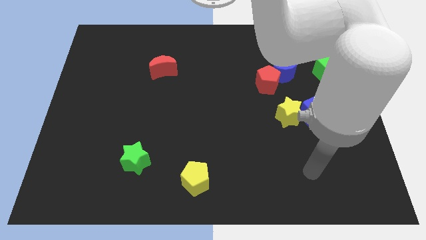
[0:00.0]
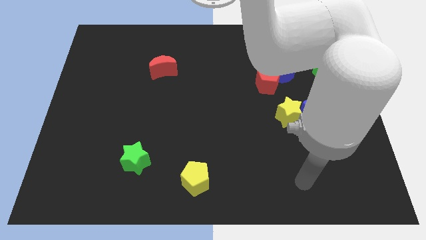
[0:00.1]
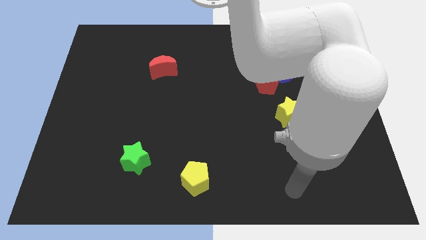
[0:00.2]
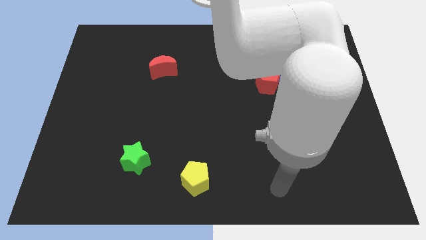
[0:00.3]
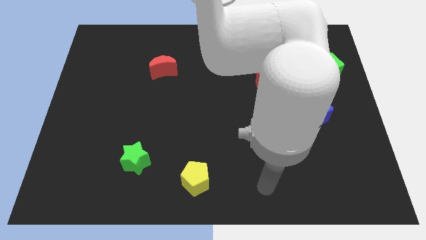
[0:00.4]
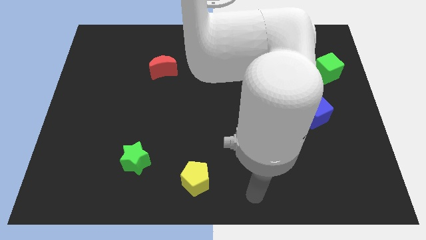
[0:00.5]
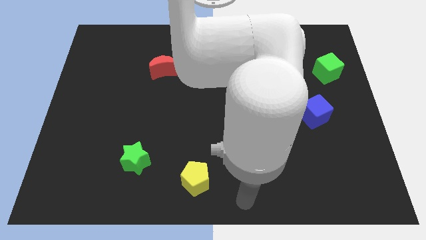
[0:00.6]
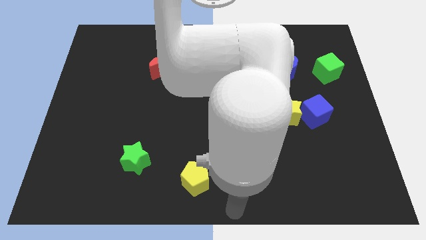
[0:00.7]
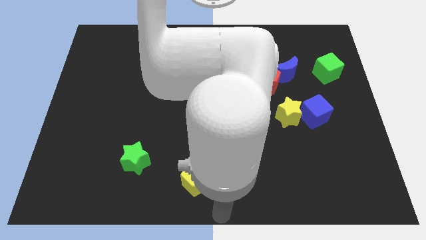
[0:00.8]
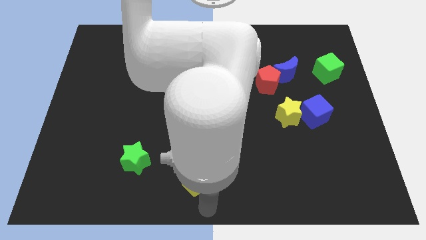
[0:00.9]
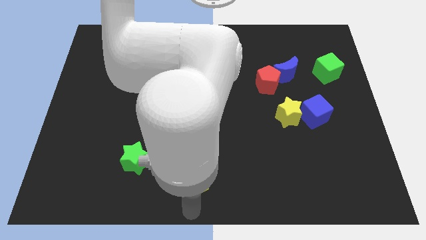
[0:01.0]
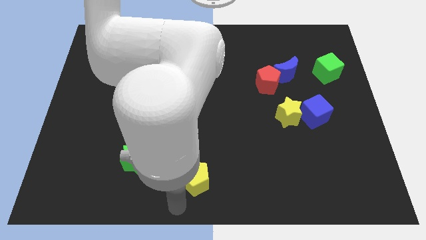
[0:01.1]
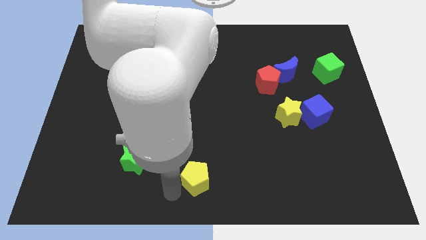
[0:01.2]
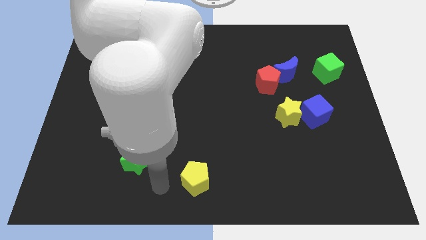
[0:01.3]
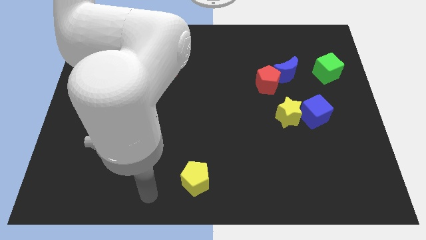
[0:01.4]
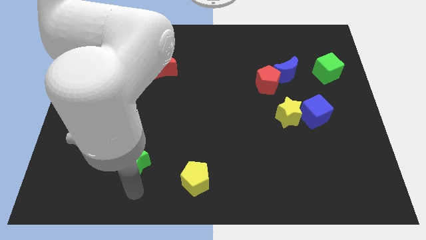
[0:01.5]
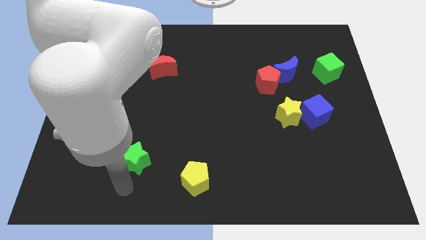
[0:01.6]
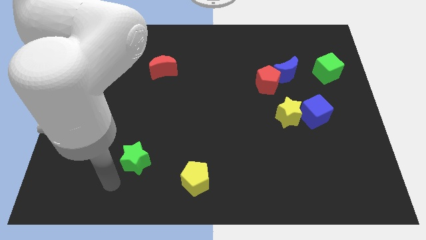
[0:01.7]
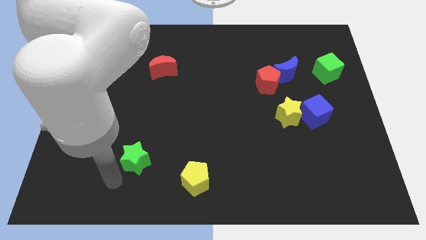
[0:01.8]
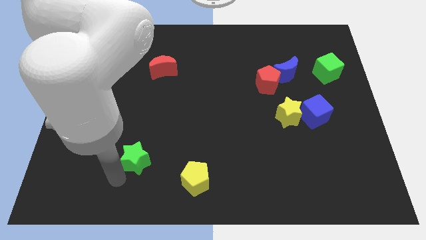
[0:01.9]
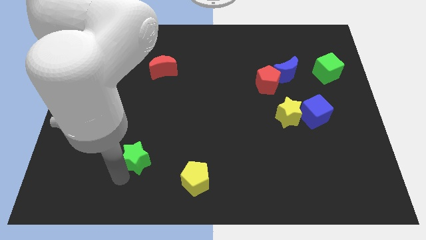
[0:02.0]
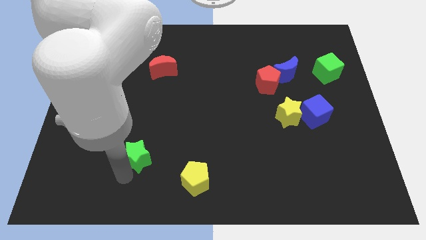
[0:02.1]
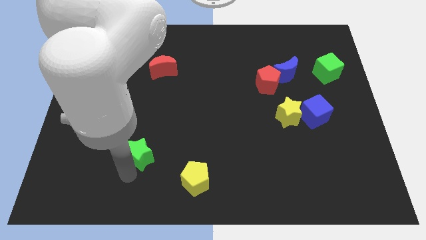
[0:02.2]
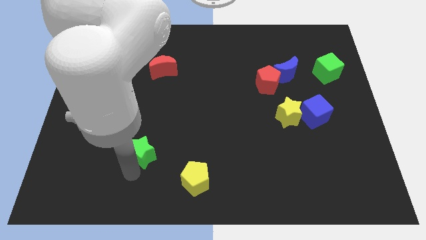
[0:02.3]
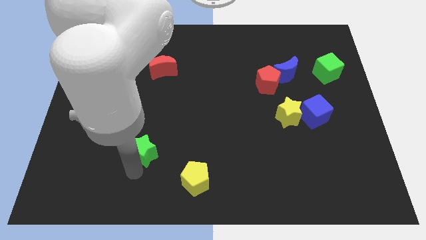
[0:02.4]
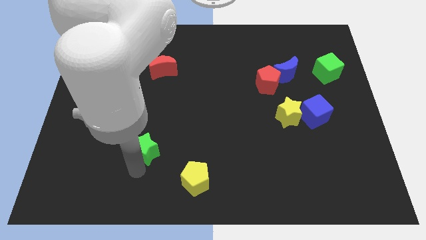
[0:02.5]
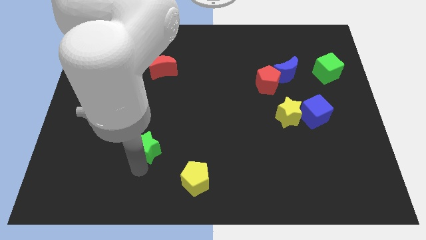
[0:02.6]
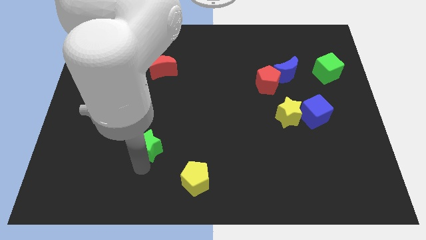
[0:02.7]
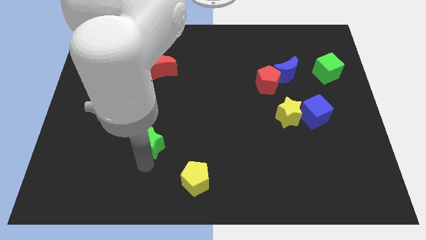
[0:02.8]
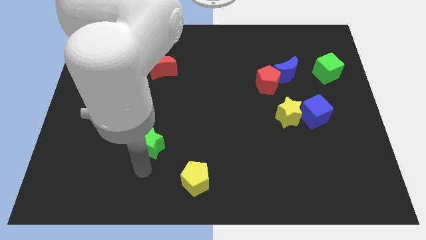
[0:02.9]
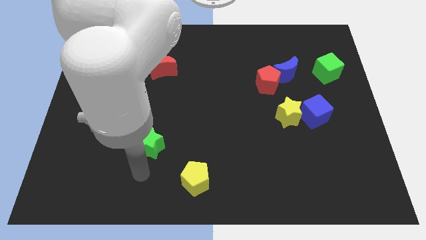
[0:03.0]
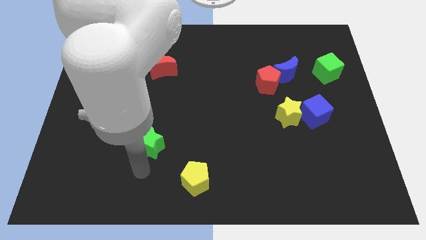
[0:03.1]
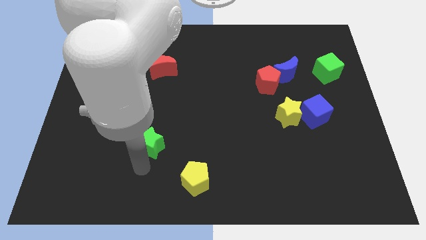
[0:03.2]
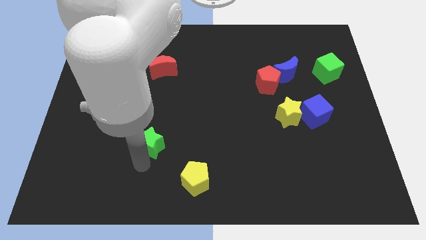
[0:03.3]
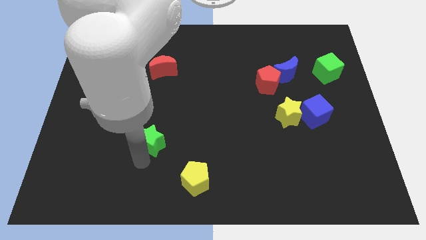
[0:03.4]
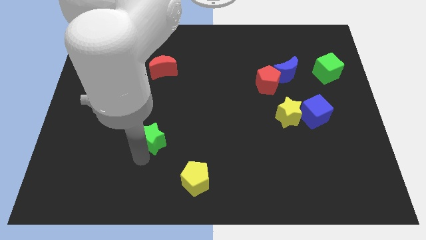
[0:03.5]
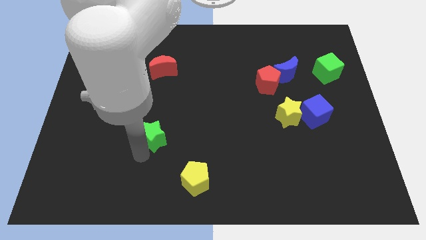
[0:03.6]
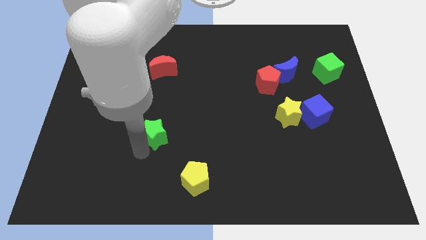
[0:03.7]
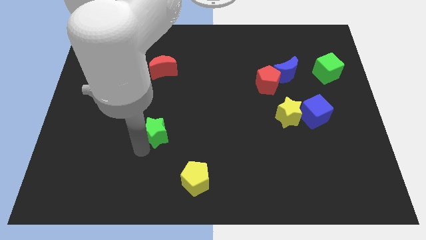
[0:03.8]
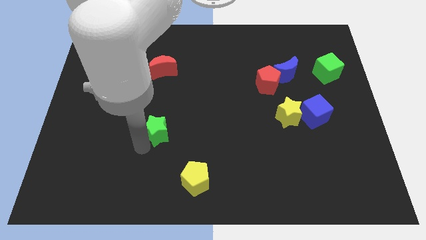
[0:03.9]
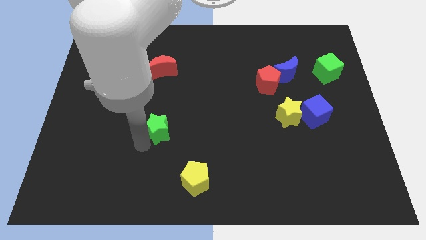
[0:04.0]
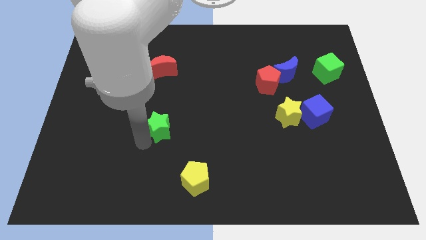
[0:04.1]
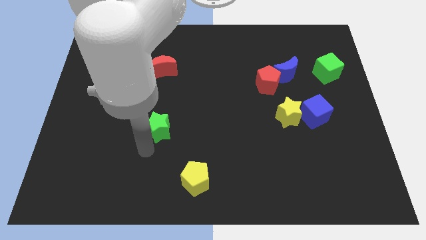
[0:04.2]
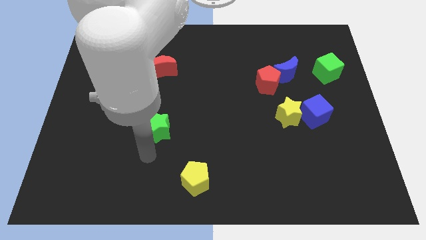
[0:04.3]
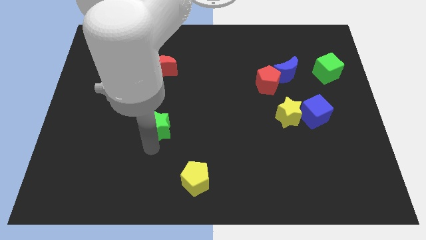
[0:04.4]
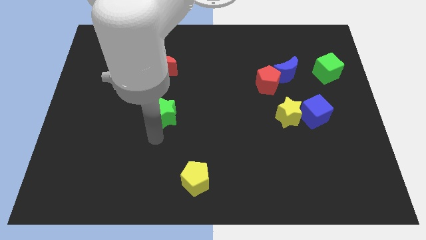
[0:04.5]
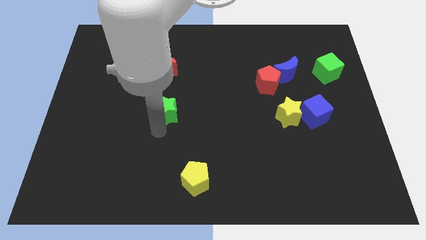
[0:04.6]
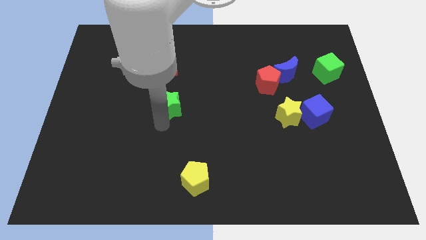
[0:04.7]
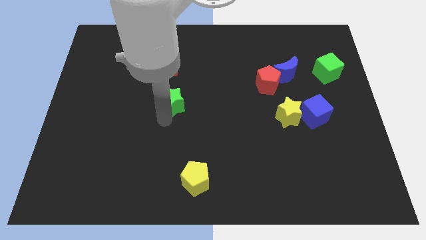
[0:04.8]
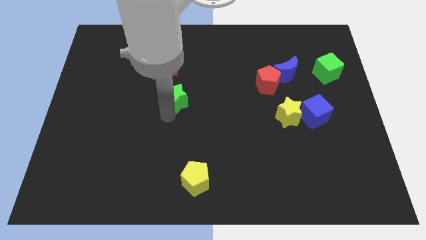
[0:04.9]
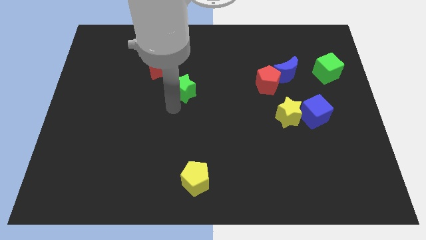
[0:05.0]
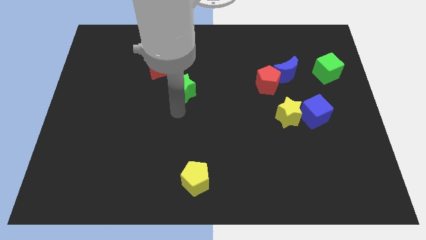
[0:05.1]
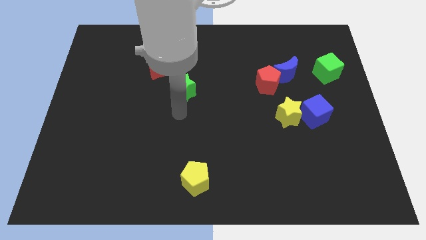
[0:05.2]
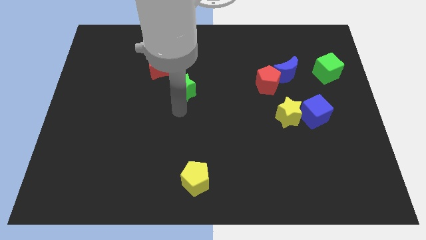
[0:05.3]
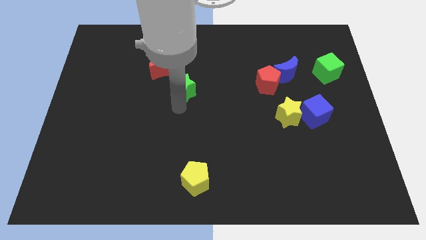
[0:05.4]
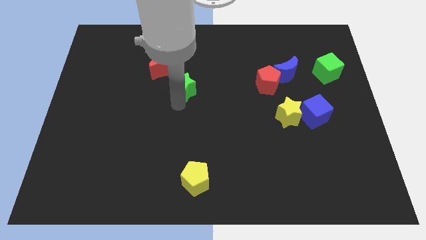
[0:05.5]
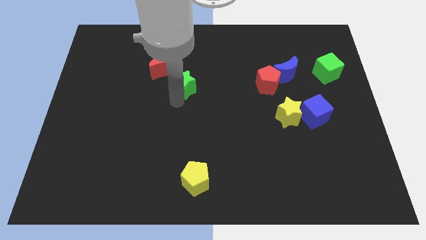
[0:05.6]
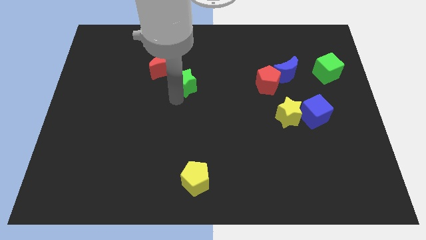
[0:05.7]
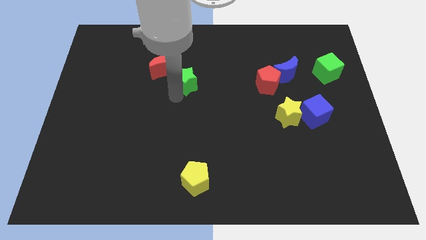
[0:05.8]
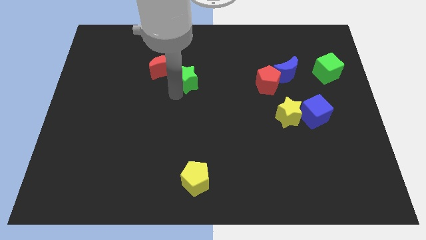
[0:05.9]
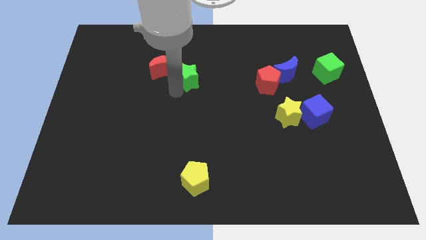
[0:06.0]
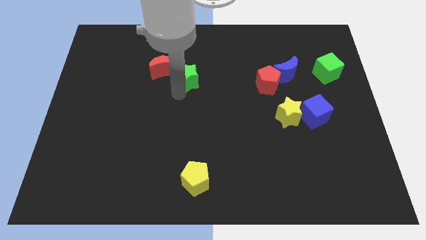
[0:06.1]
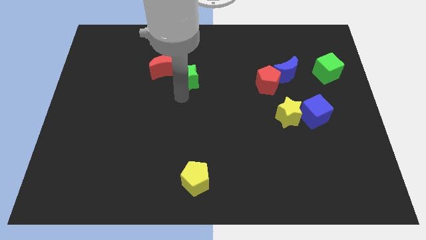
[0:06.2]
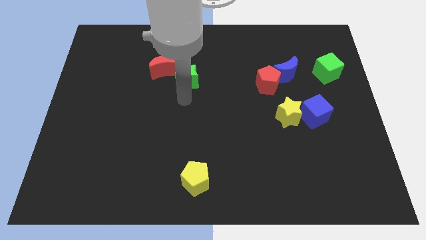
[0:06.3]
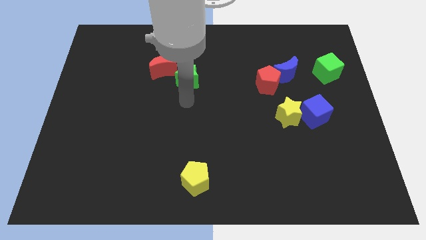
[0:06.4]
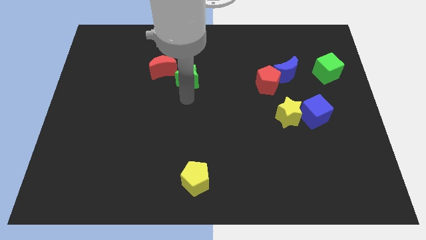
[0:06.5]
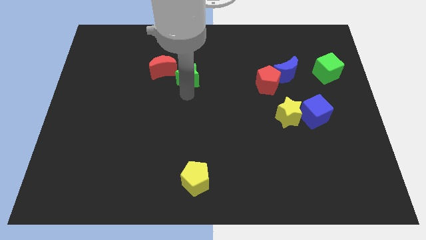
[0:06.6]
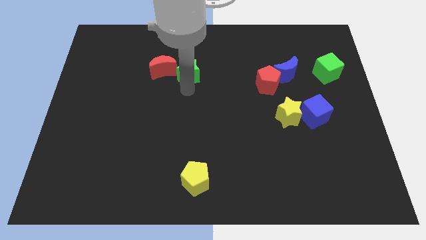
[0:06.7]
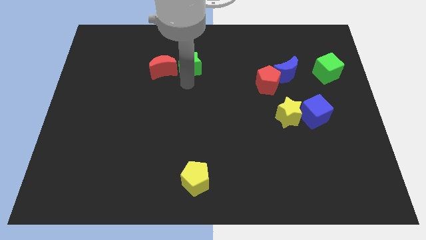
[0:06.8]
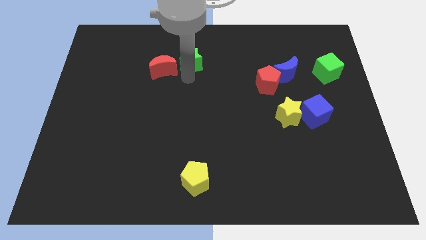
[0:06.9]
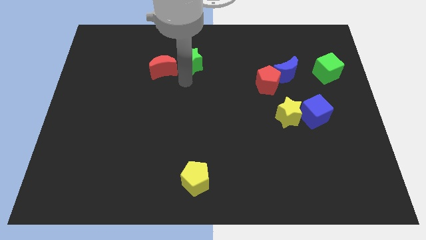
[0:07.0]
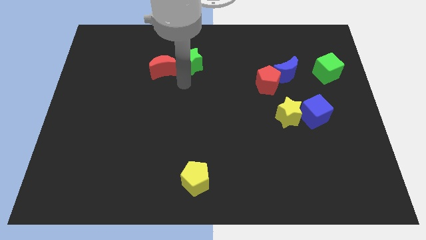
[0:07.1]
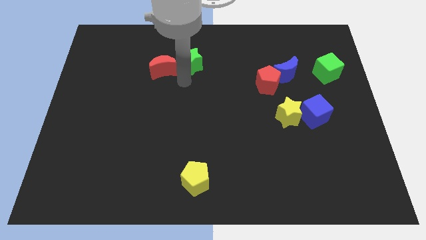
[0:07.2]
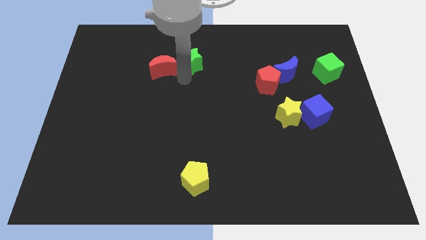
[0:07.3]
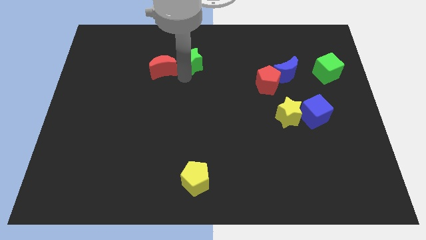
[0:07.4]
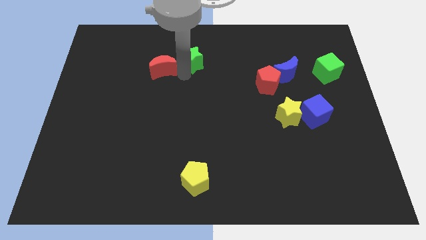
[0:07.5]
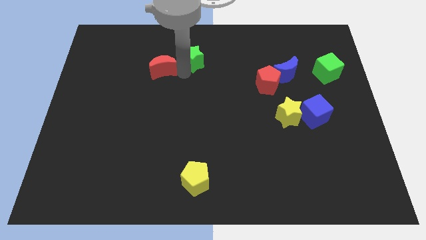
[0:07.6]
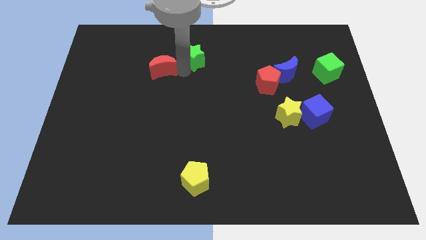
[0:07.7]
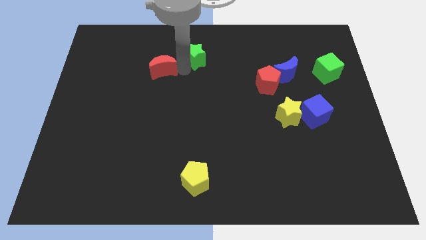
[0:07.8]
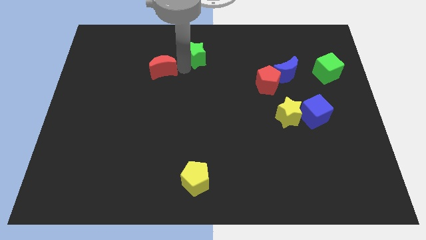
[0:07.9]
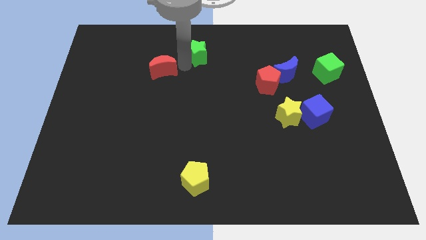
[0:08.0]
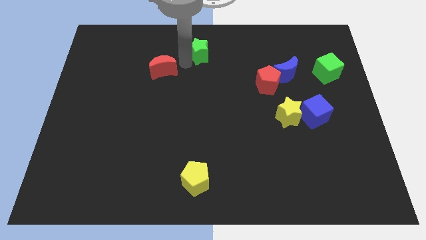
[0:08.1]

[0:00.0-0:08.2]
slide the green star to the top
